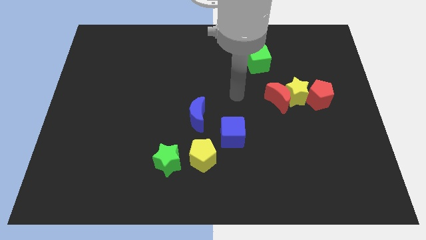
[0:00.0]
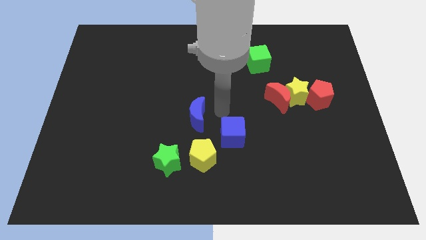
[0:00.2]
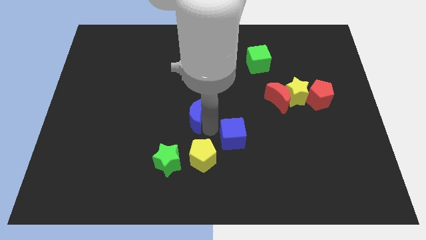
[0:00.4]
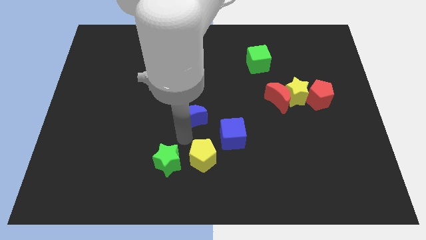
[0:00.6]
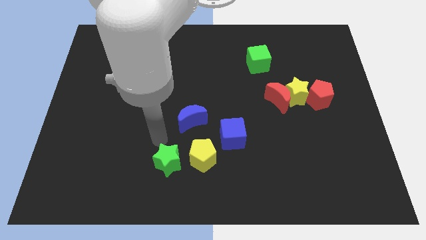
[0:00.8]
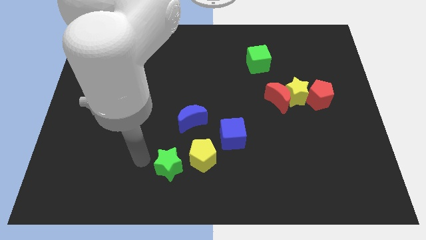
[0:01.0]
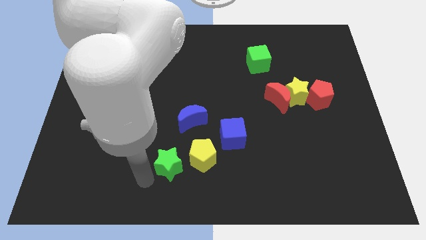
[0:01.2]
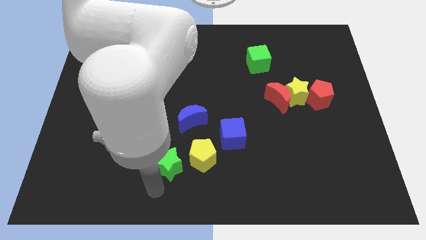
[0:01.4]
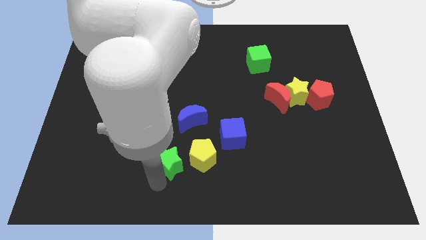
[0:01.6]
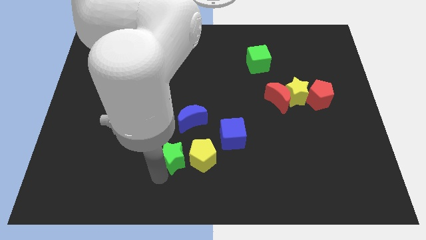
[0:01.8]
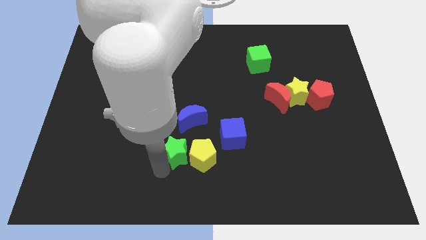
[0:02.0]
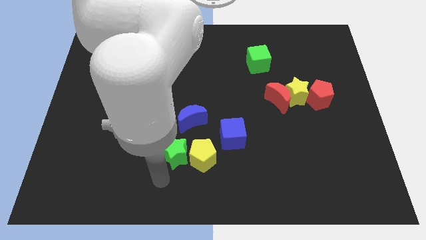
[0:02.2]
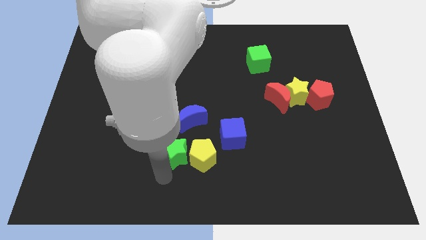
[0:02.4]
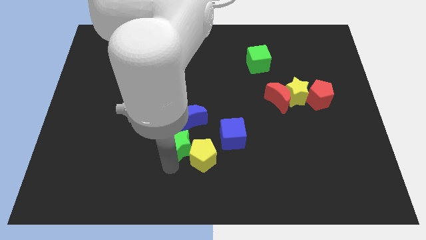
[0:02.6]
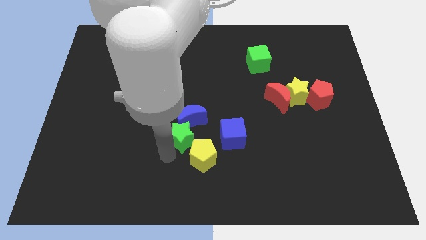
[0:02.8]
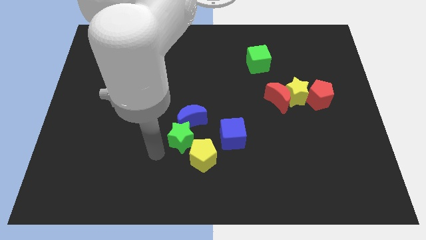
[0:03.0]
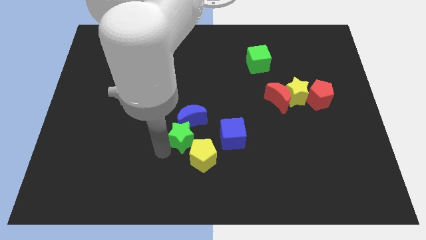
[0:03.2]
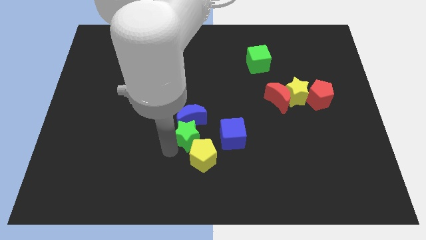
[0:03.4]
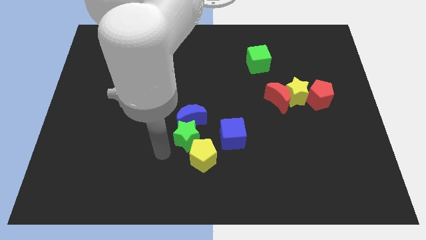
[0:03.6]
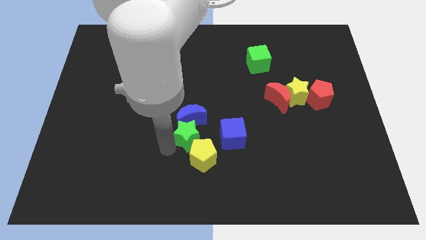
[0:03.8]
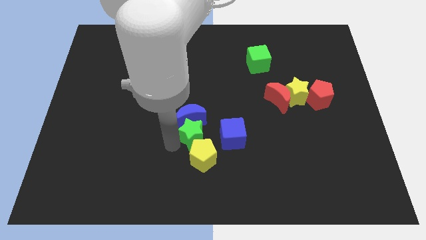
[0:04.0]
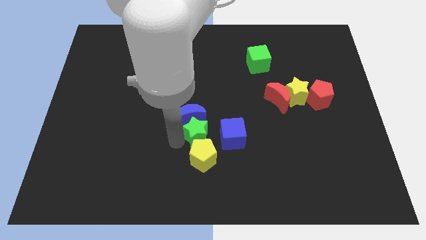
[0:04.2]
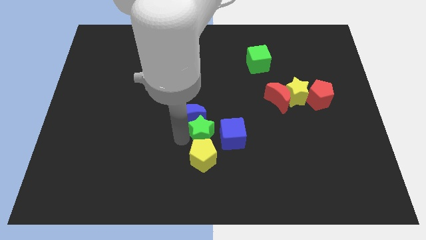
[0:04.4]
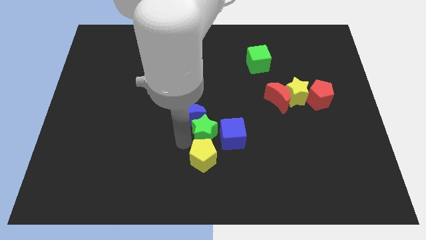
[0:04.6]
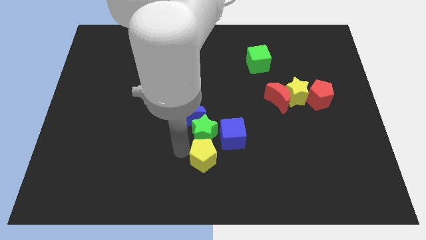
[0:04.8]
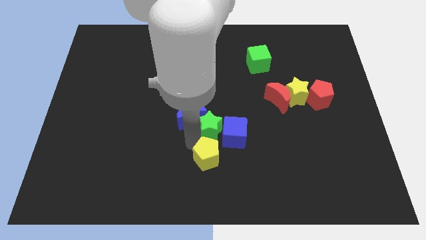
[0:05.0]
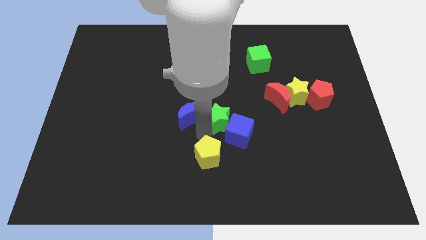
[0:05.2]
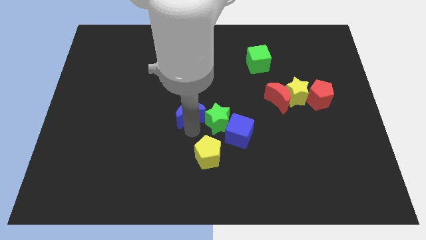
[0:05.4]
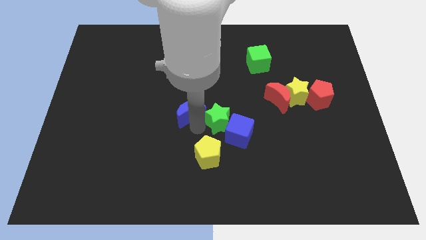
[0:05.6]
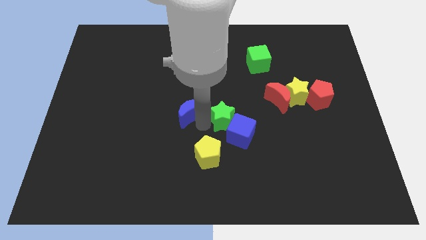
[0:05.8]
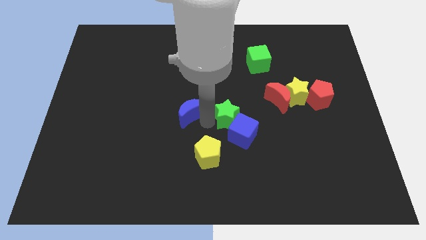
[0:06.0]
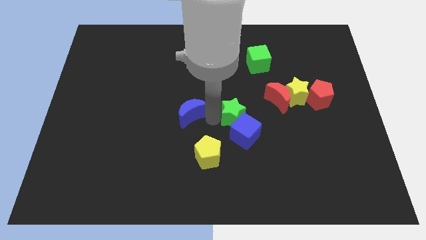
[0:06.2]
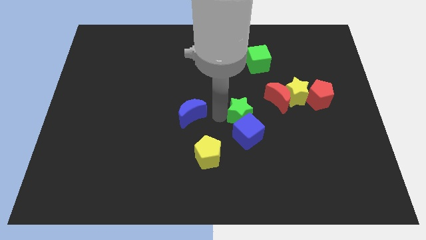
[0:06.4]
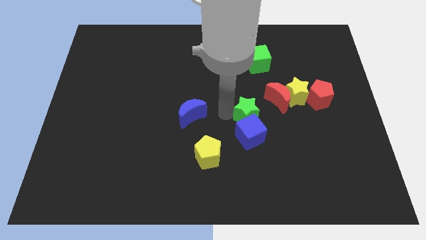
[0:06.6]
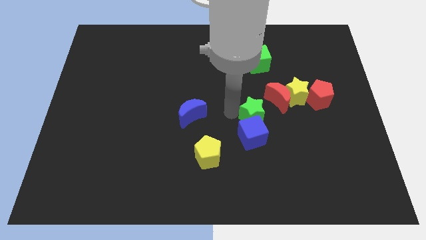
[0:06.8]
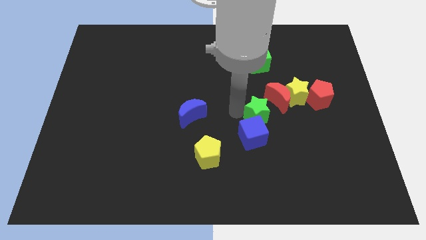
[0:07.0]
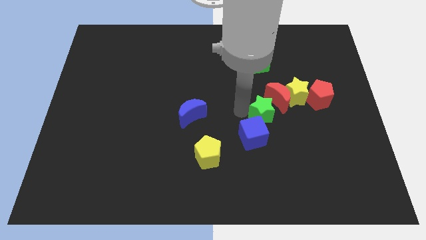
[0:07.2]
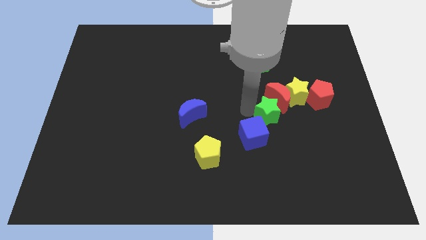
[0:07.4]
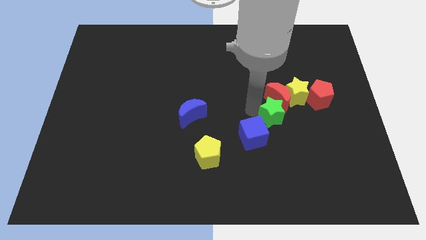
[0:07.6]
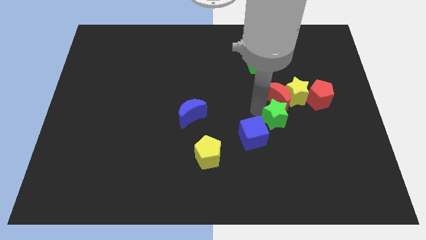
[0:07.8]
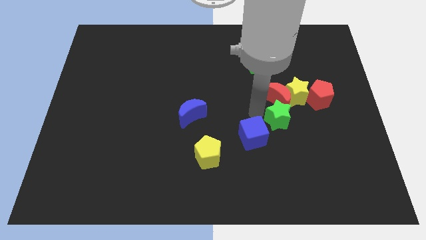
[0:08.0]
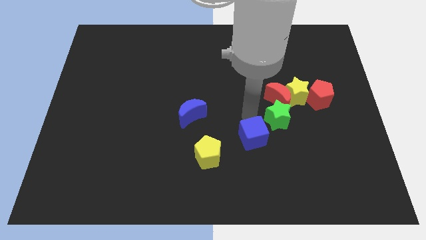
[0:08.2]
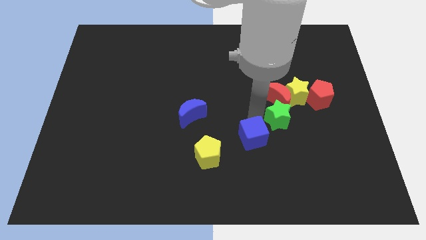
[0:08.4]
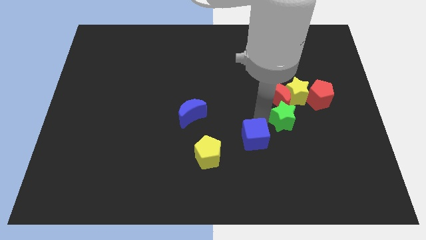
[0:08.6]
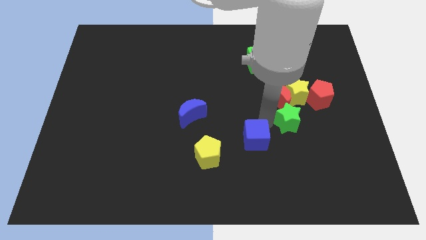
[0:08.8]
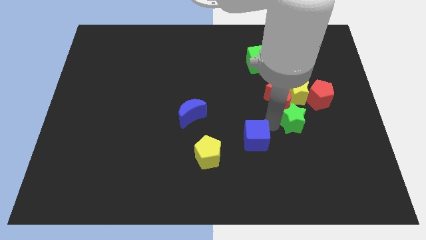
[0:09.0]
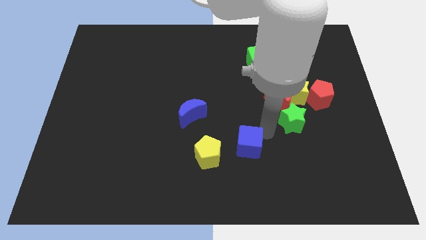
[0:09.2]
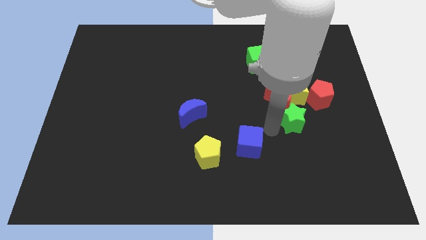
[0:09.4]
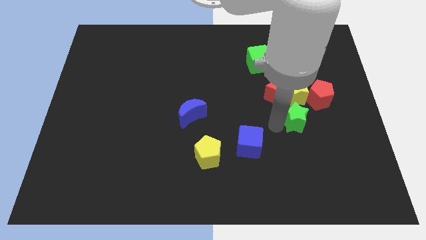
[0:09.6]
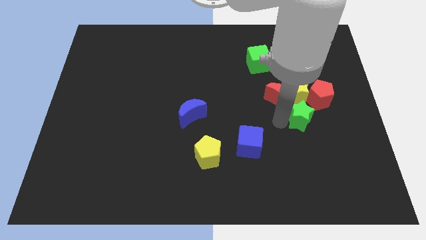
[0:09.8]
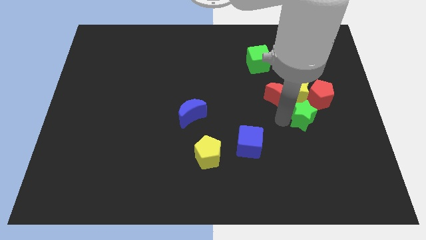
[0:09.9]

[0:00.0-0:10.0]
slide the green star to the bottom right of the yellow star

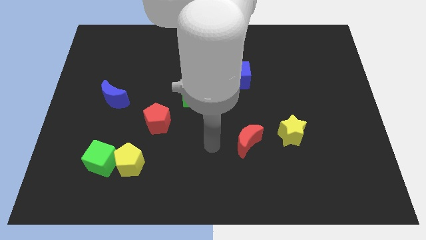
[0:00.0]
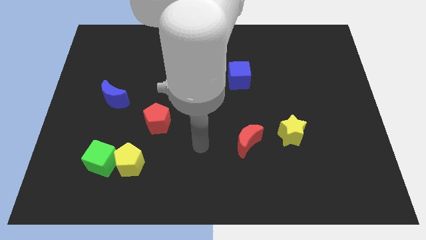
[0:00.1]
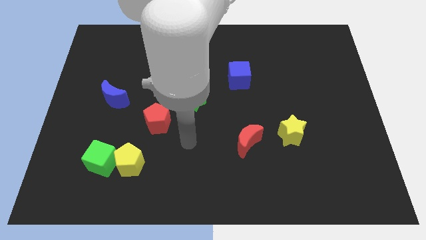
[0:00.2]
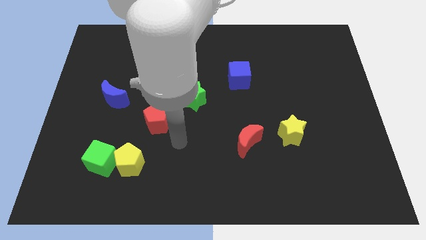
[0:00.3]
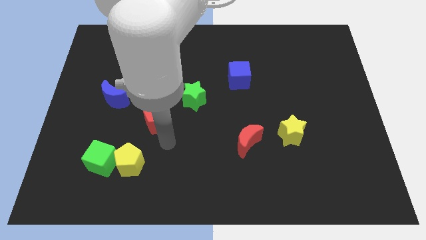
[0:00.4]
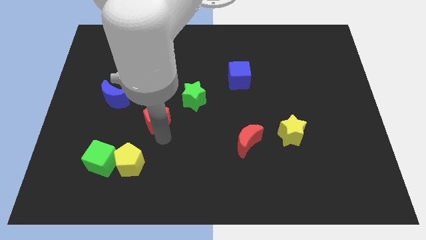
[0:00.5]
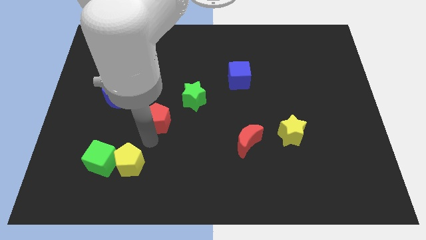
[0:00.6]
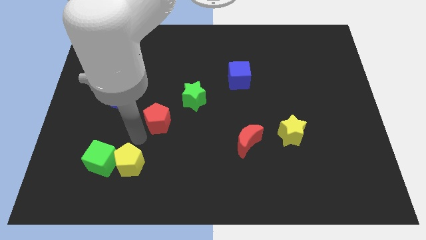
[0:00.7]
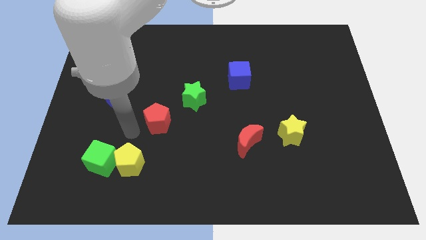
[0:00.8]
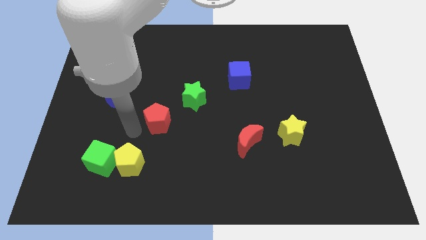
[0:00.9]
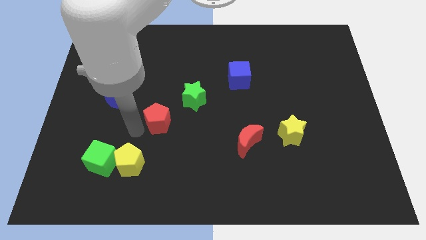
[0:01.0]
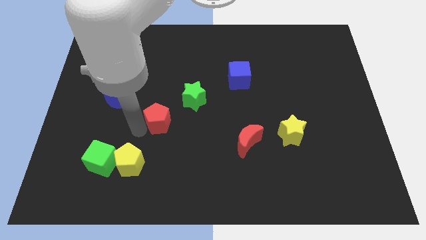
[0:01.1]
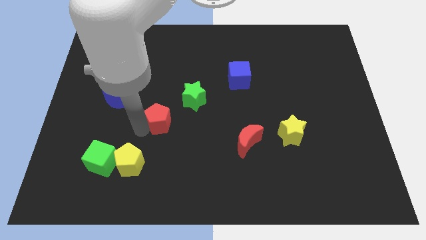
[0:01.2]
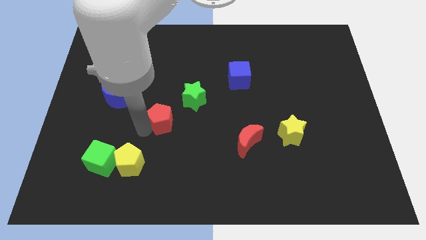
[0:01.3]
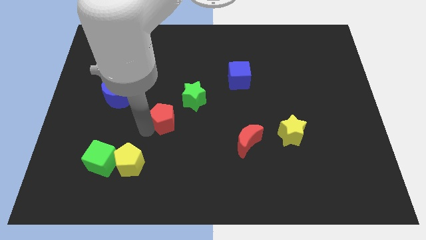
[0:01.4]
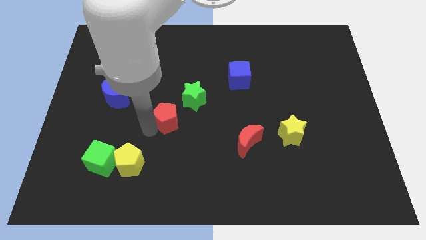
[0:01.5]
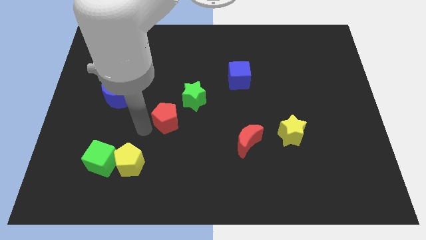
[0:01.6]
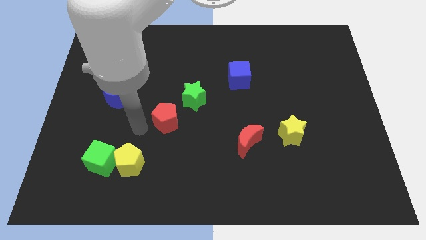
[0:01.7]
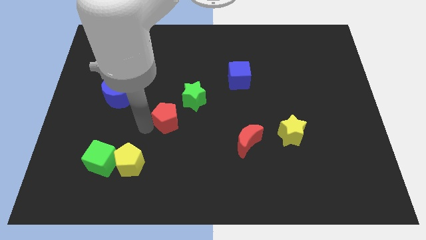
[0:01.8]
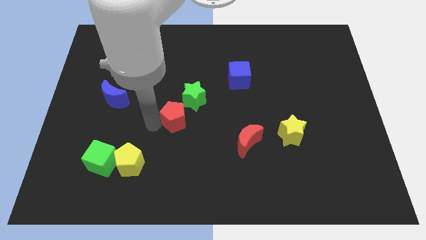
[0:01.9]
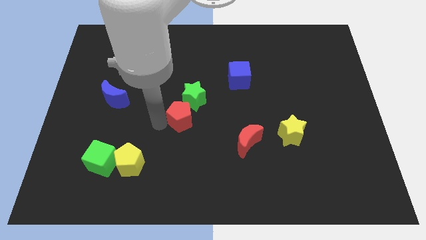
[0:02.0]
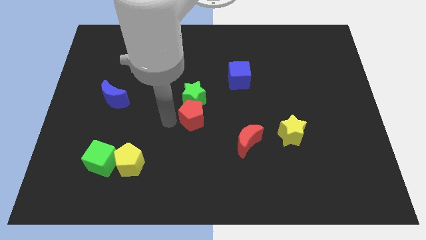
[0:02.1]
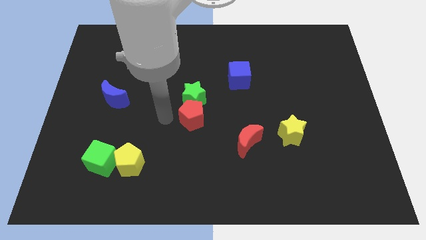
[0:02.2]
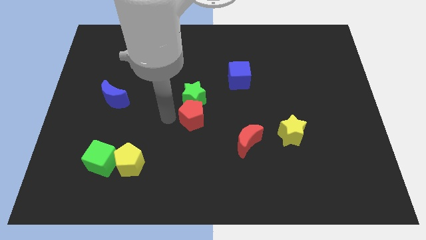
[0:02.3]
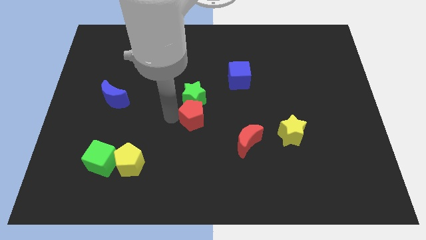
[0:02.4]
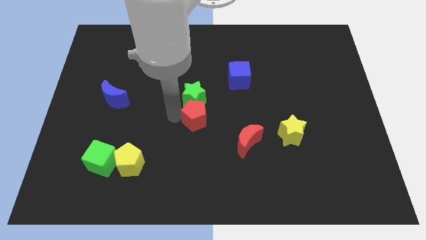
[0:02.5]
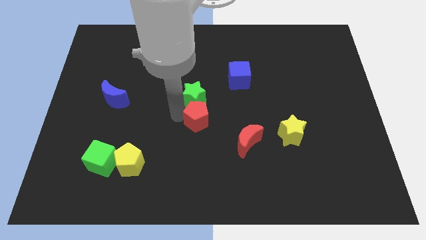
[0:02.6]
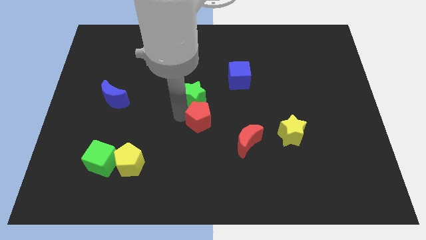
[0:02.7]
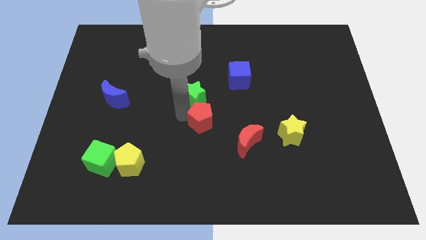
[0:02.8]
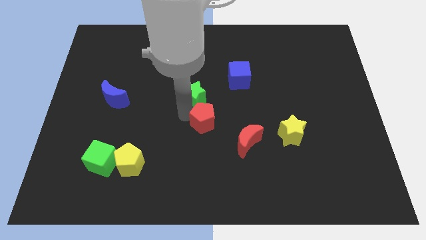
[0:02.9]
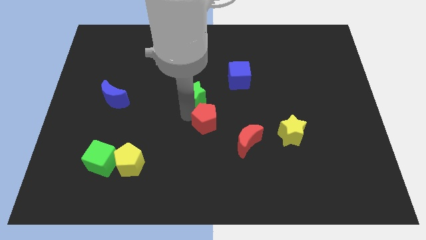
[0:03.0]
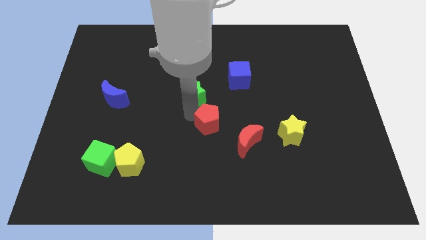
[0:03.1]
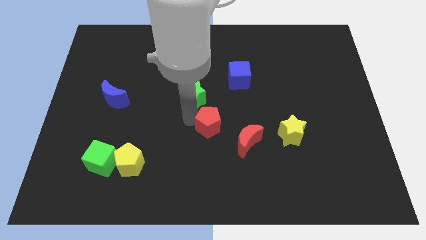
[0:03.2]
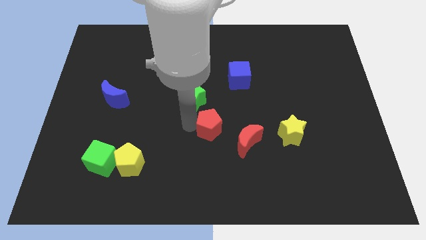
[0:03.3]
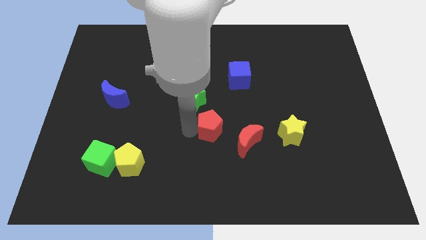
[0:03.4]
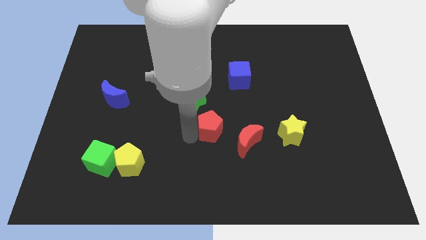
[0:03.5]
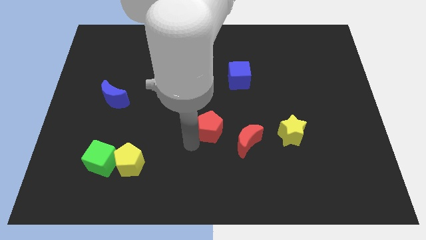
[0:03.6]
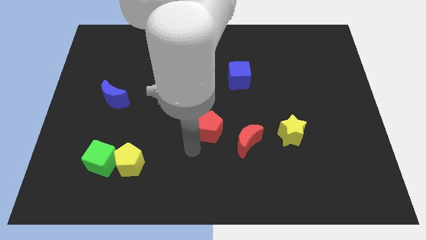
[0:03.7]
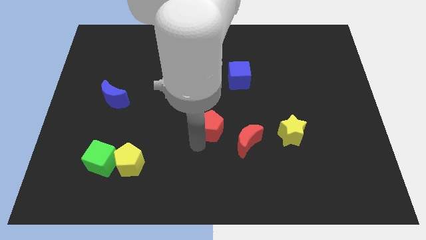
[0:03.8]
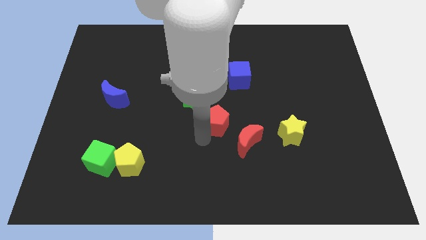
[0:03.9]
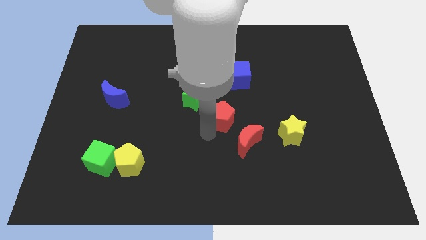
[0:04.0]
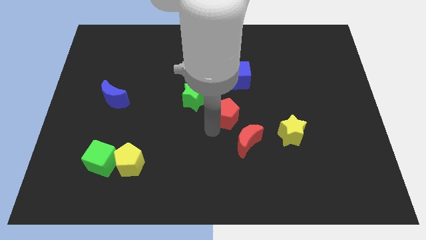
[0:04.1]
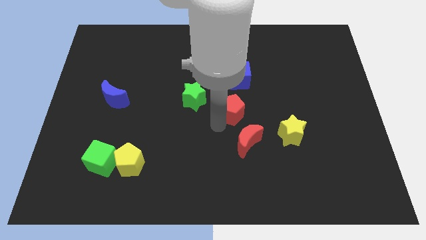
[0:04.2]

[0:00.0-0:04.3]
move the red pentagon right of the green star
